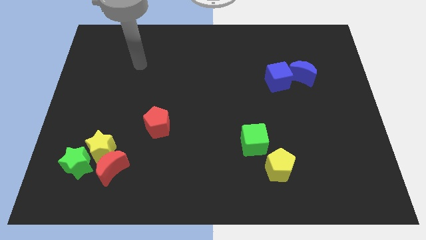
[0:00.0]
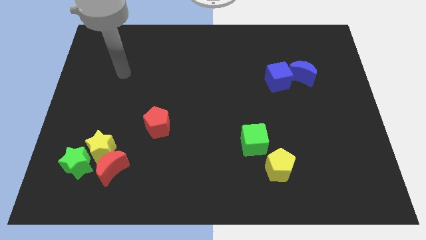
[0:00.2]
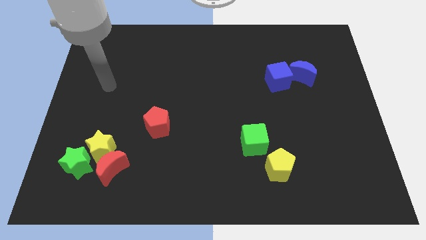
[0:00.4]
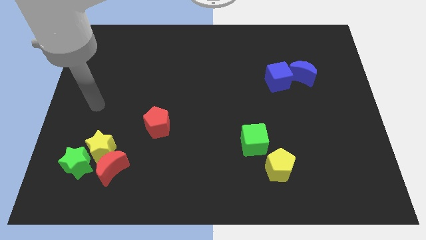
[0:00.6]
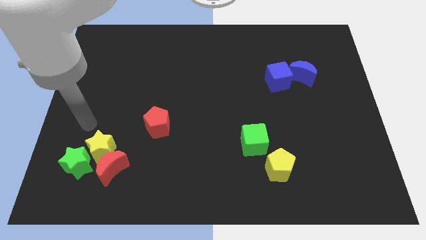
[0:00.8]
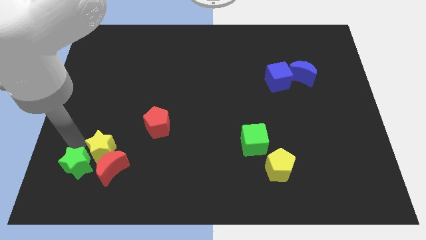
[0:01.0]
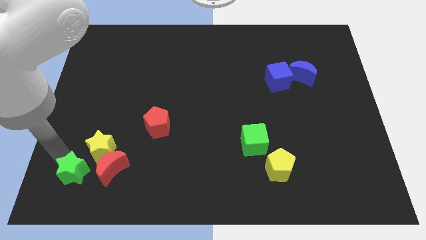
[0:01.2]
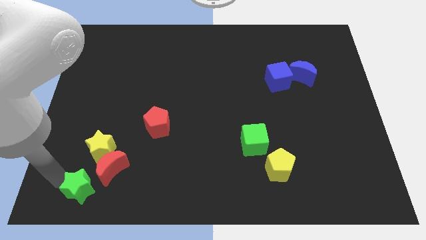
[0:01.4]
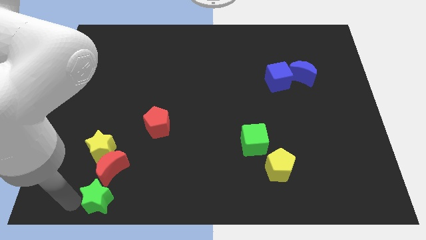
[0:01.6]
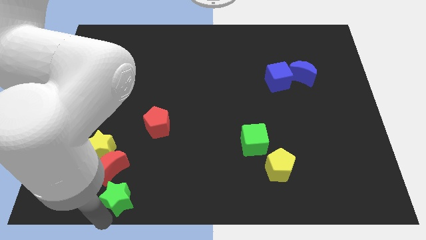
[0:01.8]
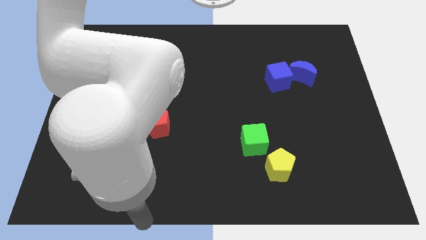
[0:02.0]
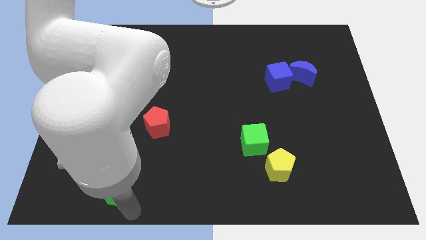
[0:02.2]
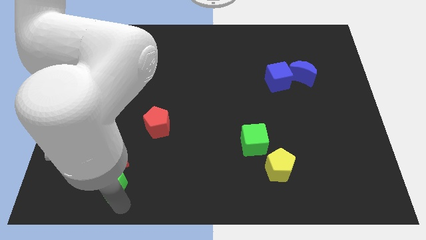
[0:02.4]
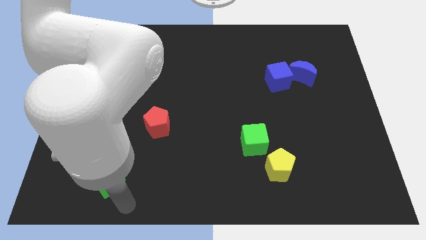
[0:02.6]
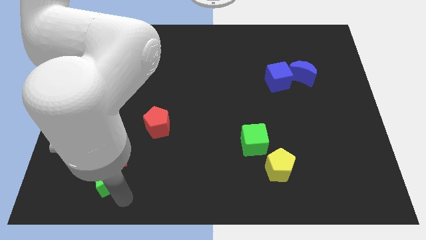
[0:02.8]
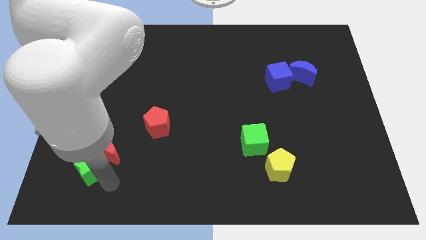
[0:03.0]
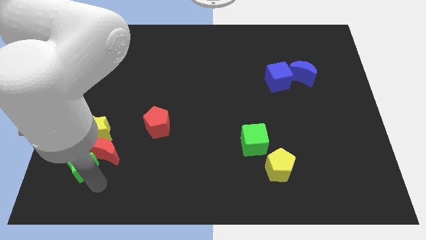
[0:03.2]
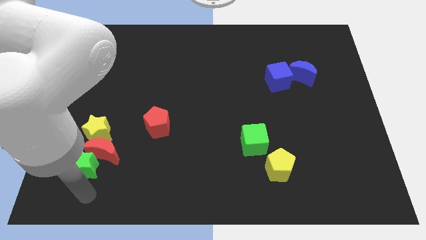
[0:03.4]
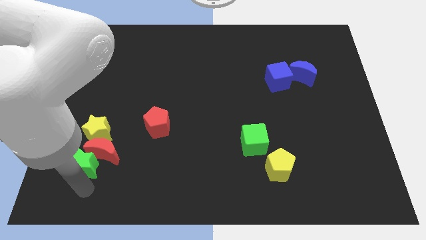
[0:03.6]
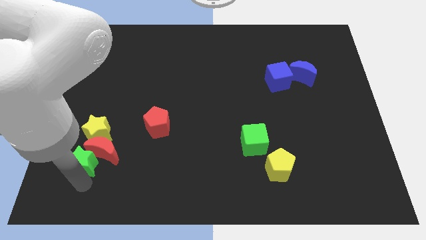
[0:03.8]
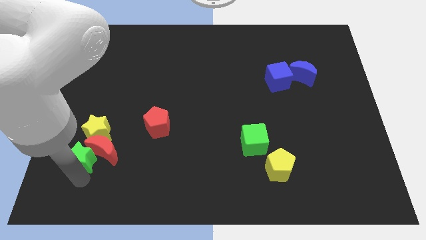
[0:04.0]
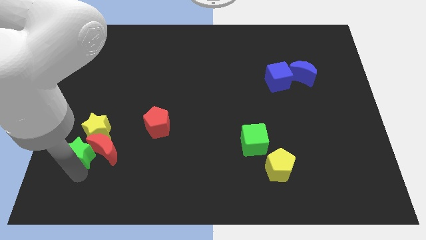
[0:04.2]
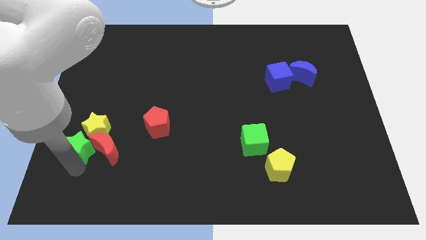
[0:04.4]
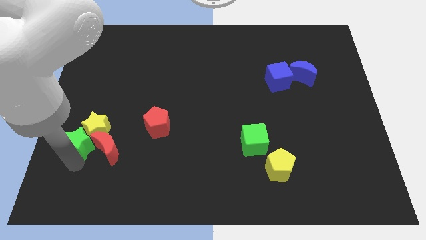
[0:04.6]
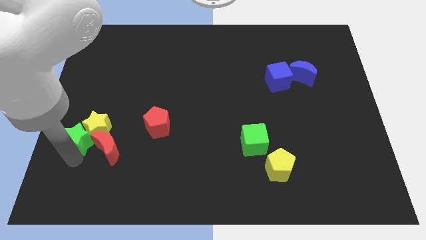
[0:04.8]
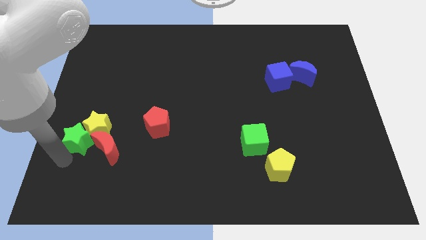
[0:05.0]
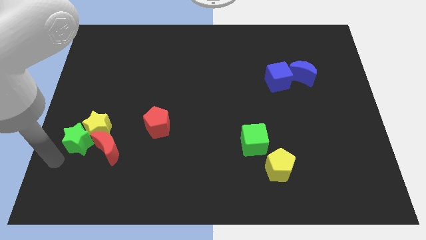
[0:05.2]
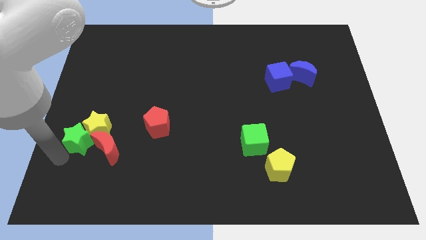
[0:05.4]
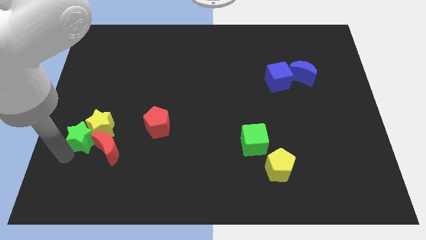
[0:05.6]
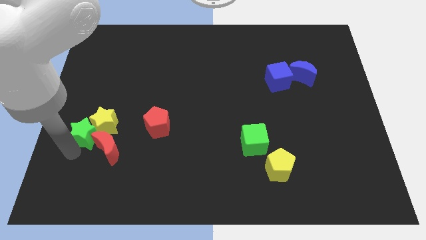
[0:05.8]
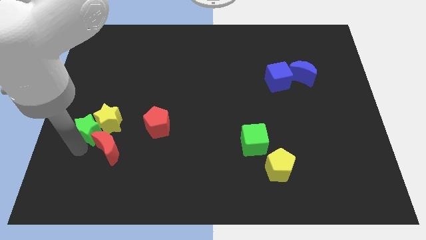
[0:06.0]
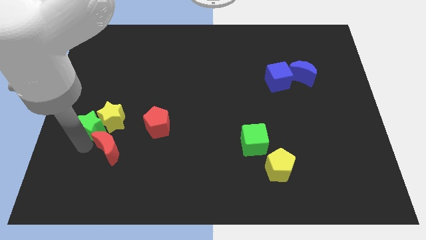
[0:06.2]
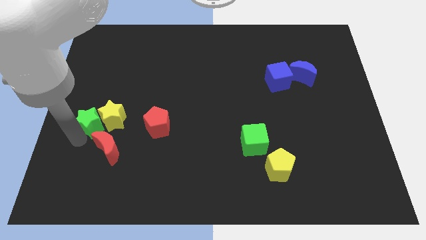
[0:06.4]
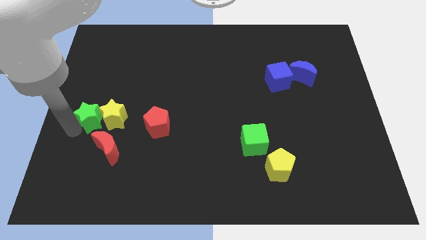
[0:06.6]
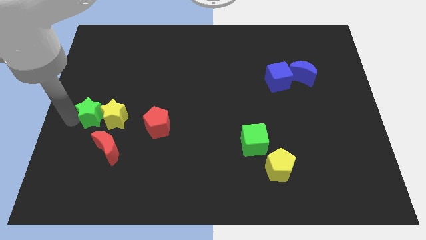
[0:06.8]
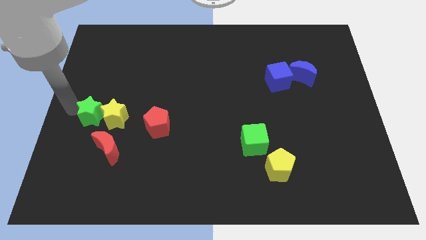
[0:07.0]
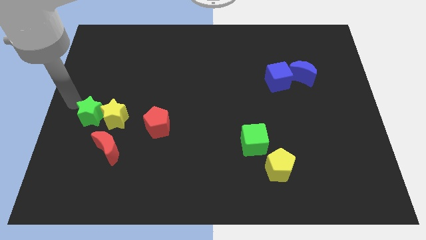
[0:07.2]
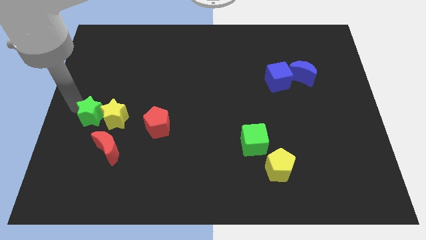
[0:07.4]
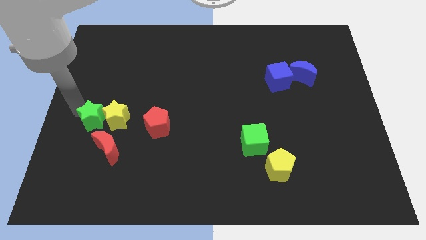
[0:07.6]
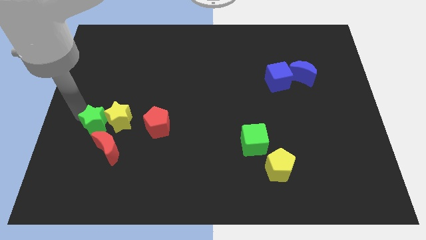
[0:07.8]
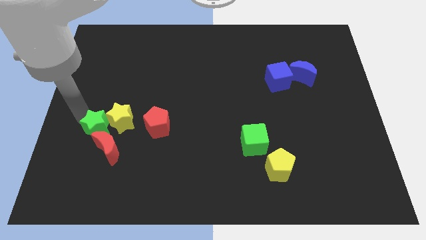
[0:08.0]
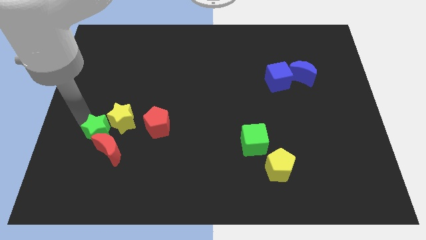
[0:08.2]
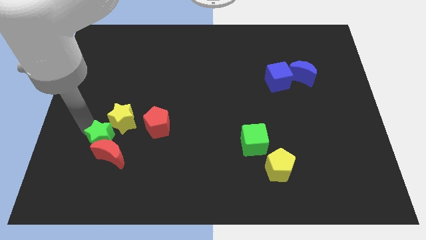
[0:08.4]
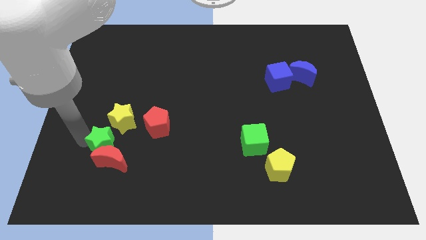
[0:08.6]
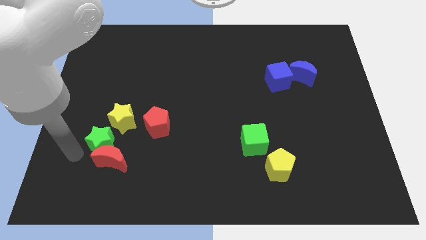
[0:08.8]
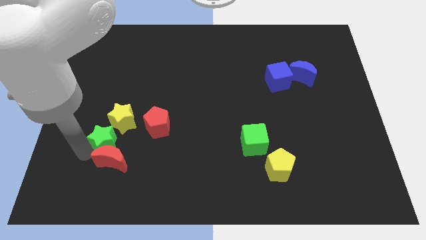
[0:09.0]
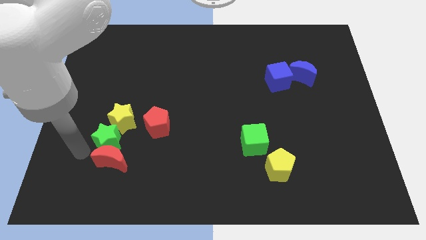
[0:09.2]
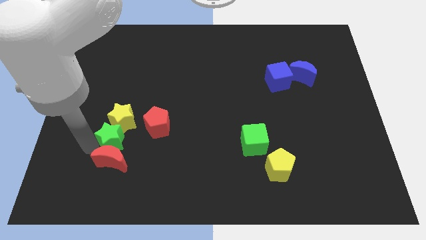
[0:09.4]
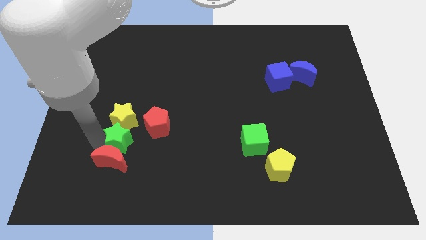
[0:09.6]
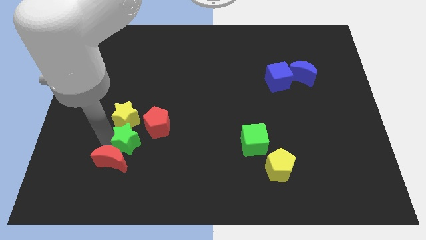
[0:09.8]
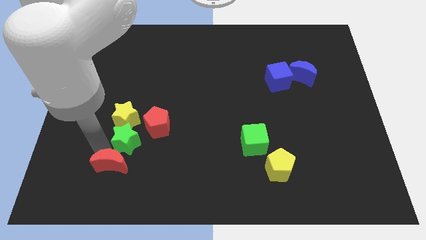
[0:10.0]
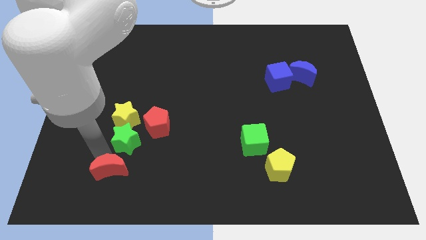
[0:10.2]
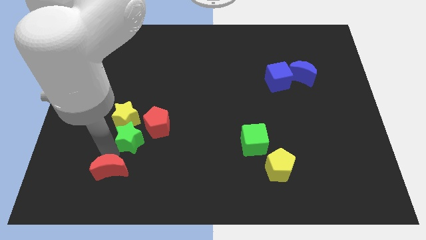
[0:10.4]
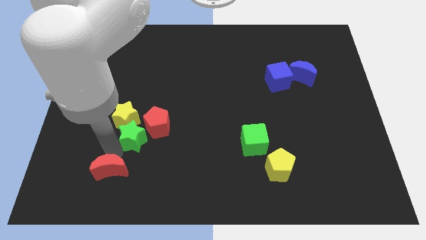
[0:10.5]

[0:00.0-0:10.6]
put the green star to the red pentagon

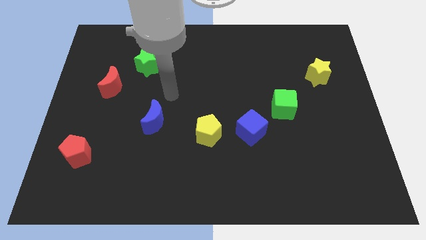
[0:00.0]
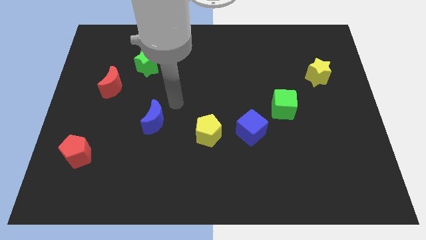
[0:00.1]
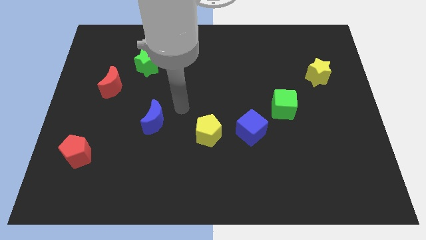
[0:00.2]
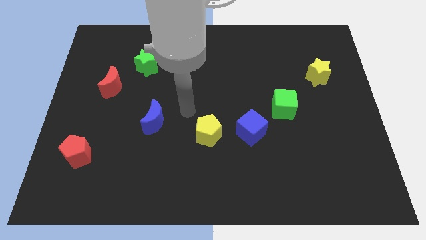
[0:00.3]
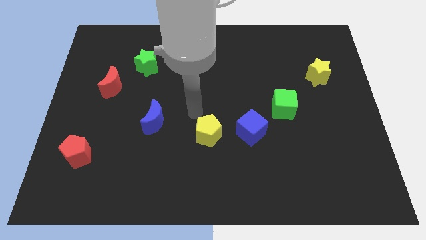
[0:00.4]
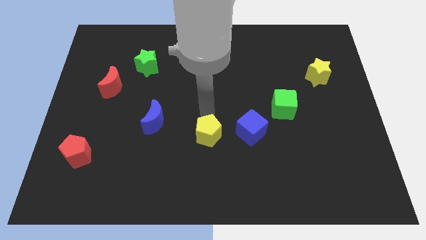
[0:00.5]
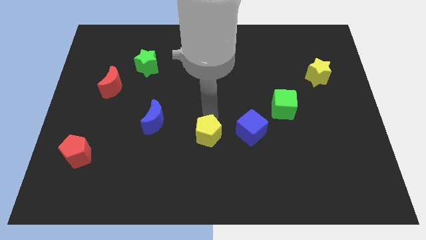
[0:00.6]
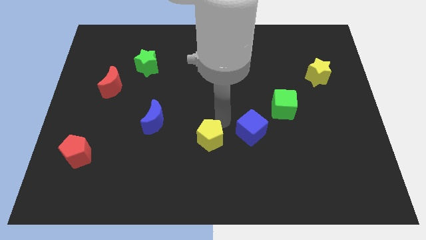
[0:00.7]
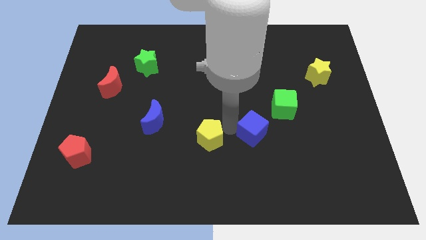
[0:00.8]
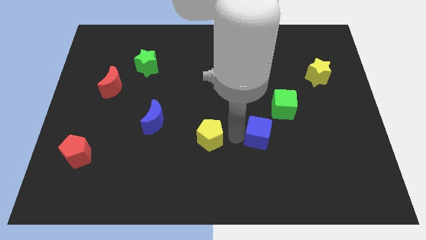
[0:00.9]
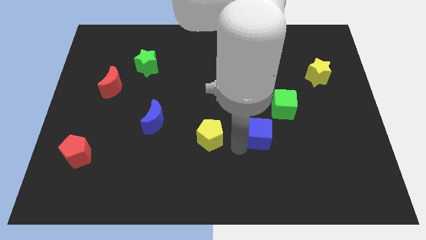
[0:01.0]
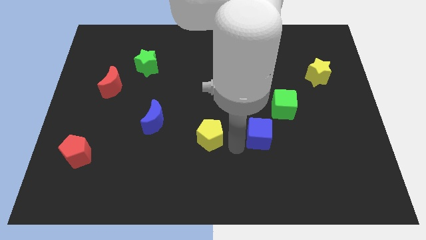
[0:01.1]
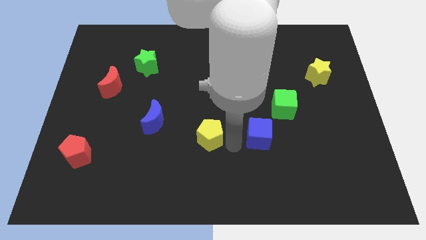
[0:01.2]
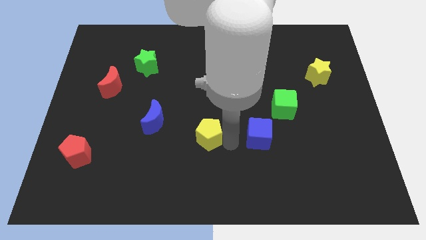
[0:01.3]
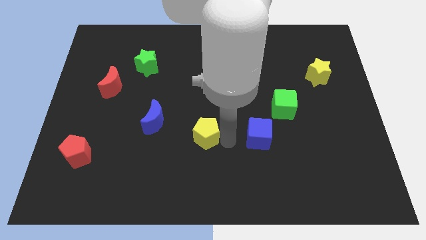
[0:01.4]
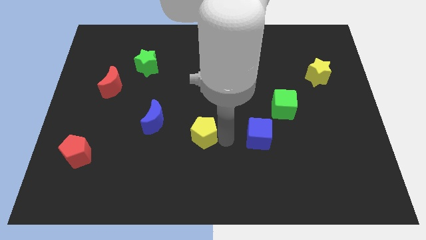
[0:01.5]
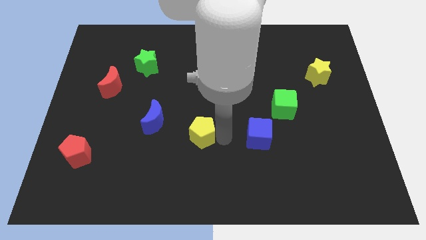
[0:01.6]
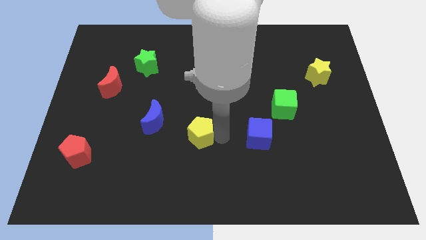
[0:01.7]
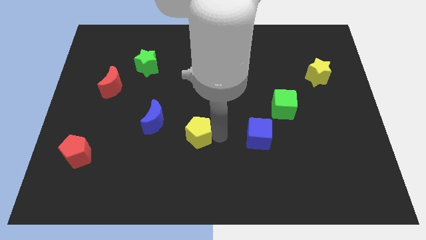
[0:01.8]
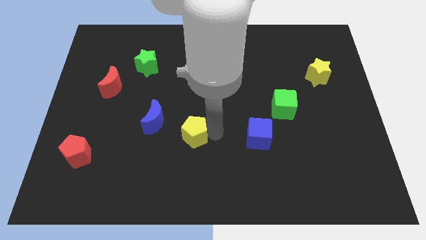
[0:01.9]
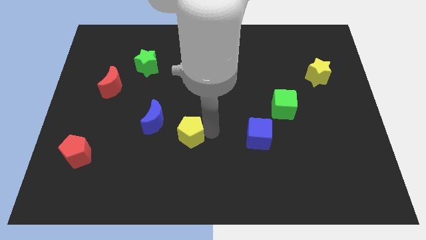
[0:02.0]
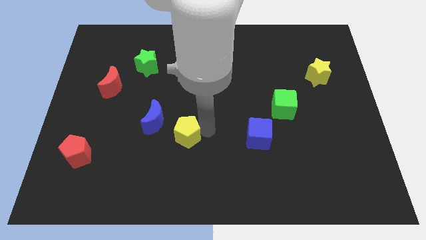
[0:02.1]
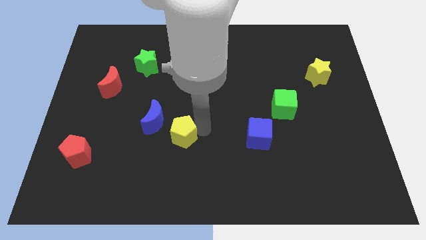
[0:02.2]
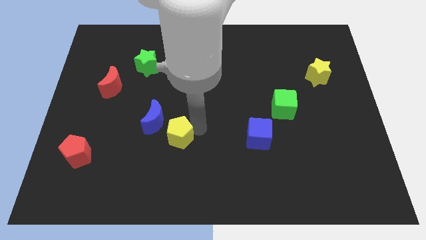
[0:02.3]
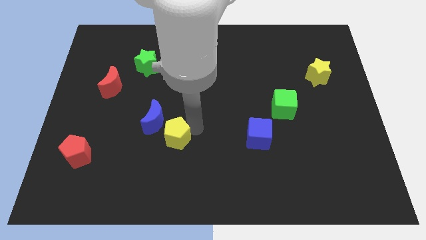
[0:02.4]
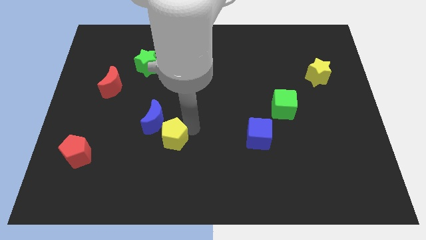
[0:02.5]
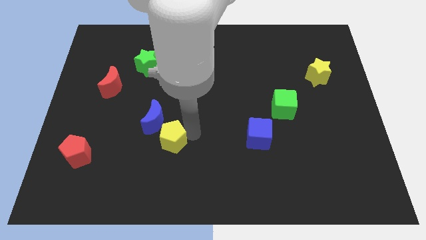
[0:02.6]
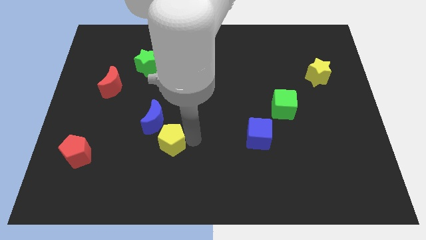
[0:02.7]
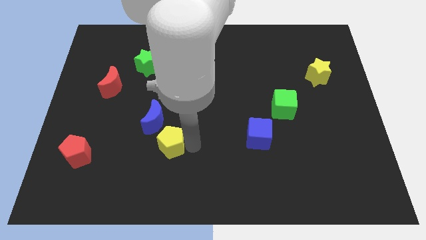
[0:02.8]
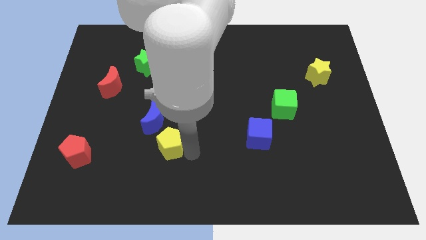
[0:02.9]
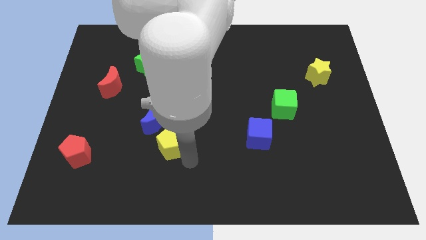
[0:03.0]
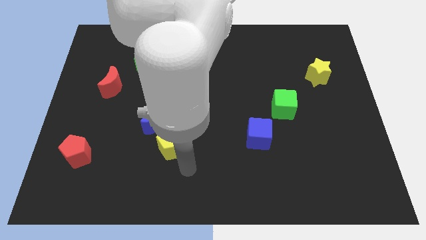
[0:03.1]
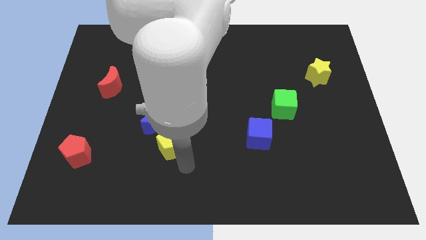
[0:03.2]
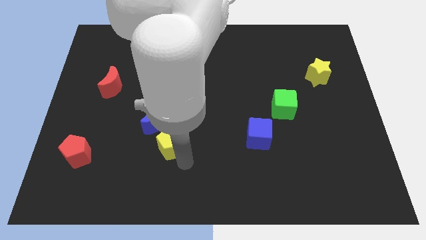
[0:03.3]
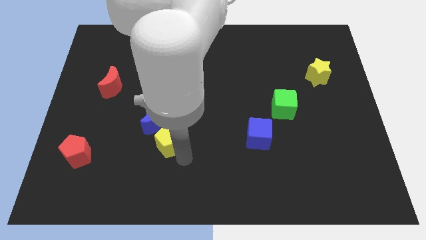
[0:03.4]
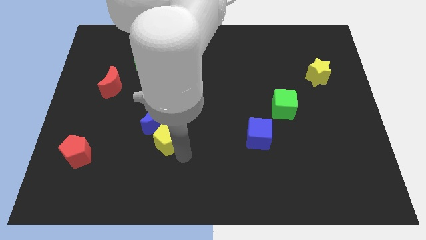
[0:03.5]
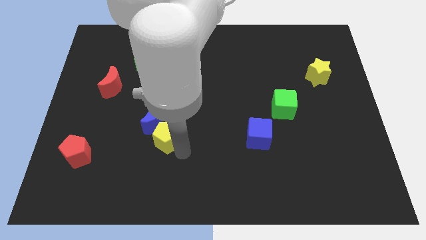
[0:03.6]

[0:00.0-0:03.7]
put the yellow pentagon to the blue moon
